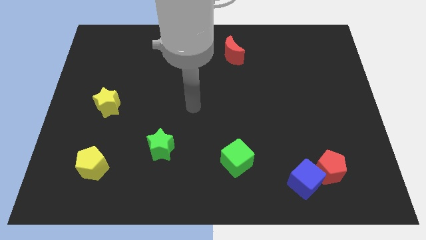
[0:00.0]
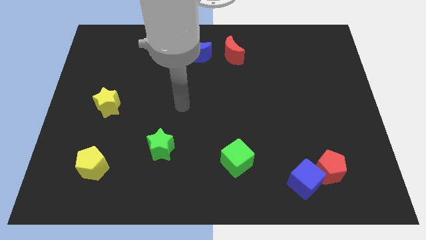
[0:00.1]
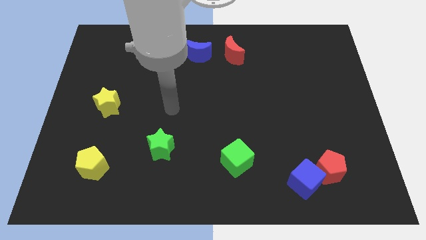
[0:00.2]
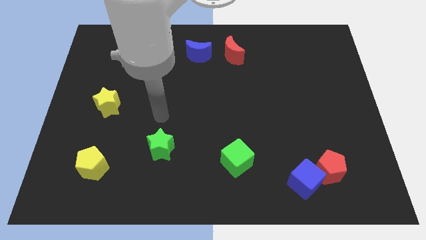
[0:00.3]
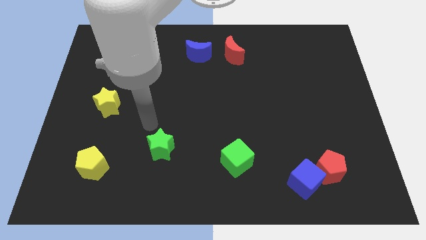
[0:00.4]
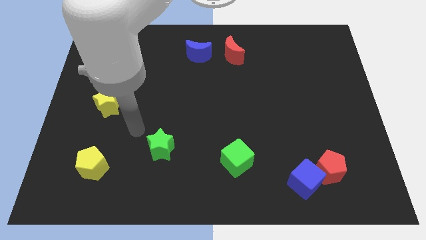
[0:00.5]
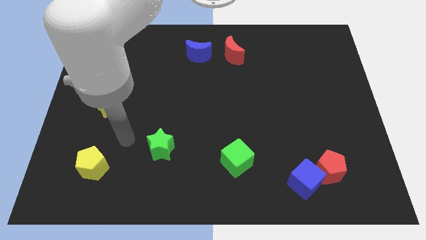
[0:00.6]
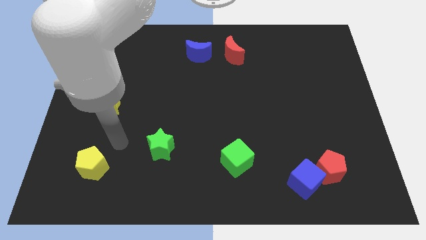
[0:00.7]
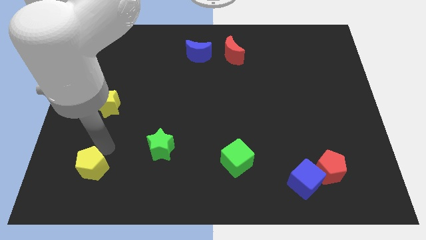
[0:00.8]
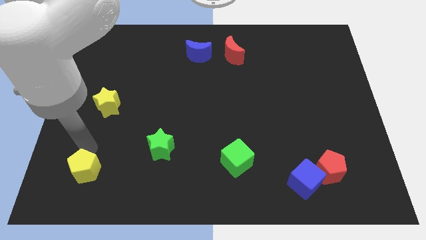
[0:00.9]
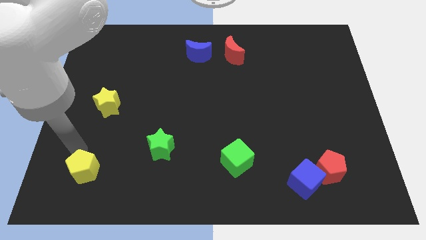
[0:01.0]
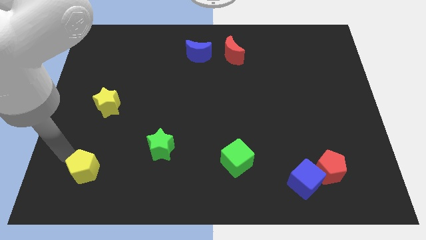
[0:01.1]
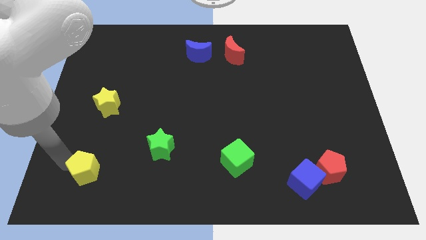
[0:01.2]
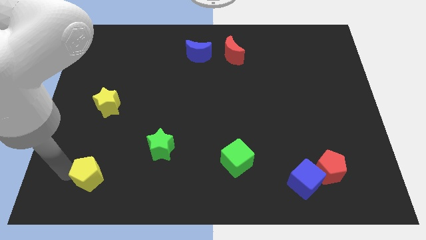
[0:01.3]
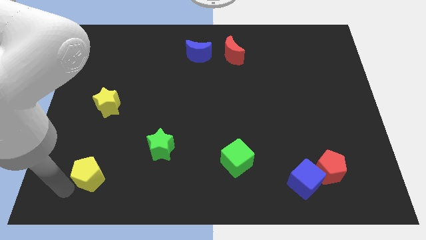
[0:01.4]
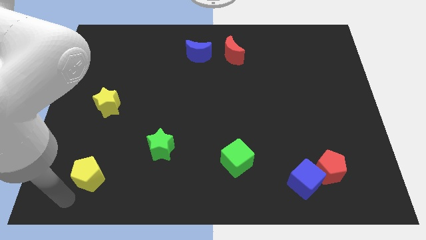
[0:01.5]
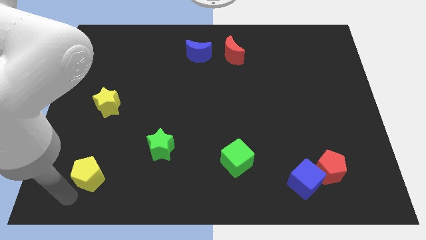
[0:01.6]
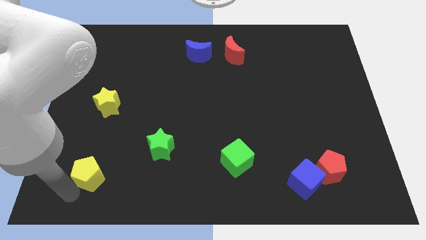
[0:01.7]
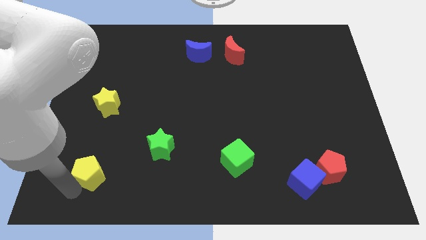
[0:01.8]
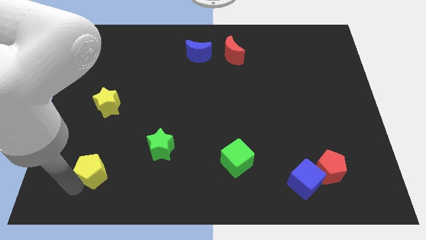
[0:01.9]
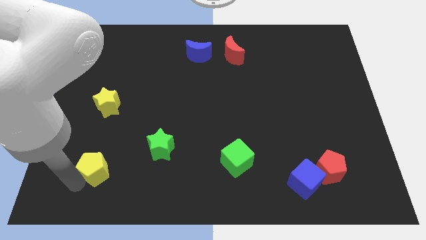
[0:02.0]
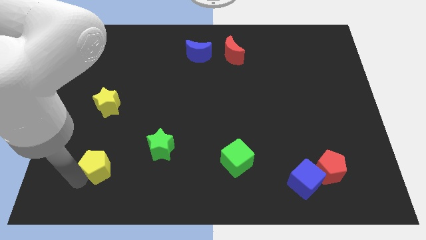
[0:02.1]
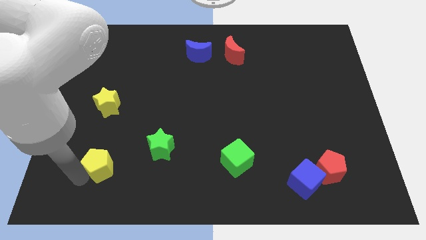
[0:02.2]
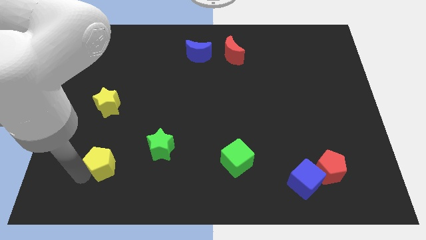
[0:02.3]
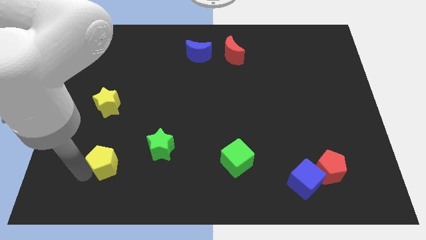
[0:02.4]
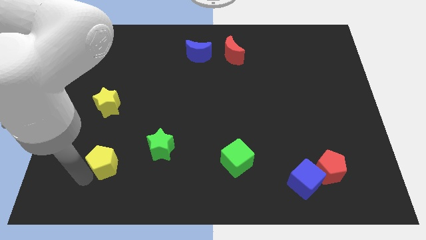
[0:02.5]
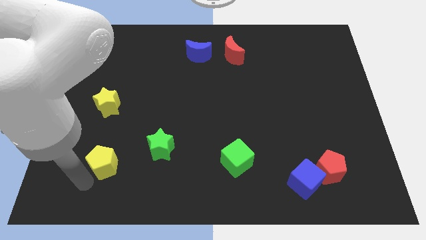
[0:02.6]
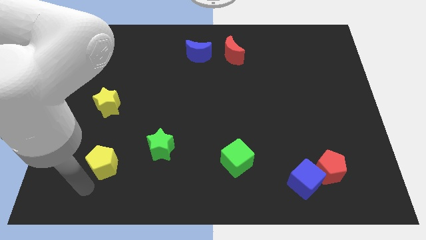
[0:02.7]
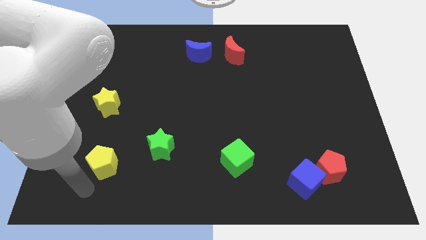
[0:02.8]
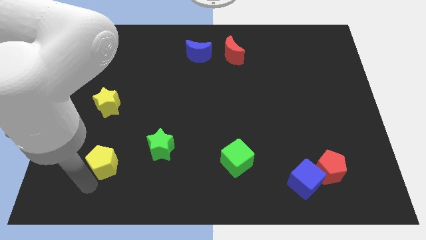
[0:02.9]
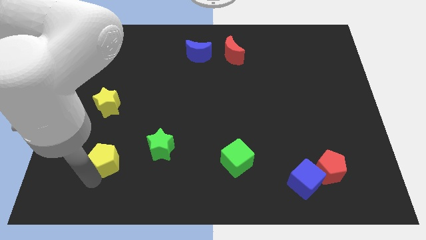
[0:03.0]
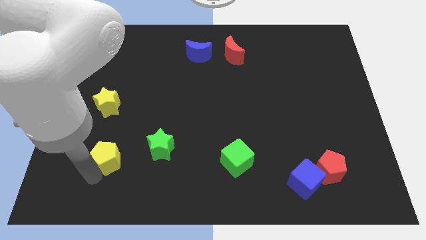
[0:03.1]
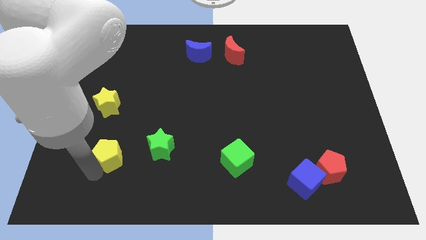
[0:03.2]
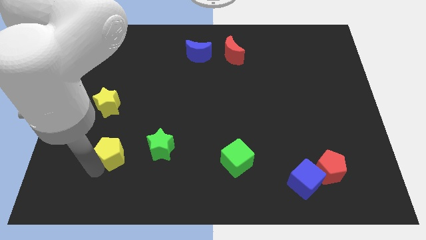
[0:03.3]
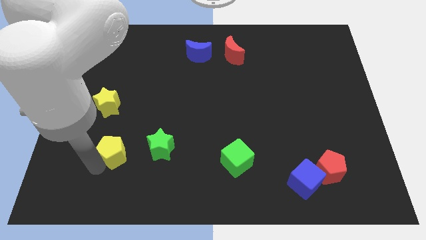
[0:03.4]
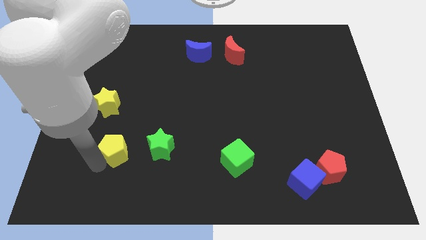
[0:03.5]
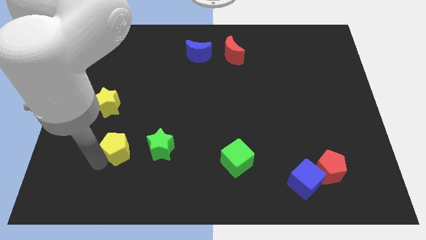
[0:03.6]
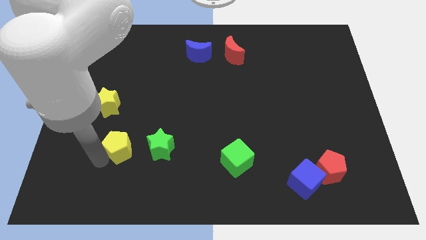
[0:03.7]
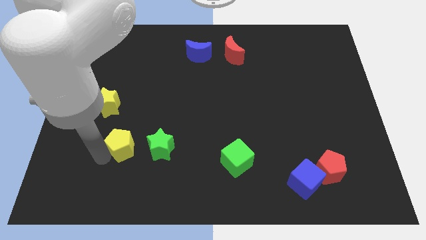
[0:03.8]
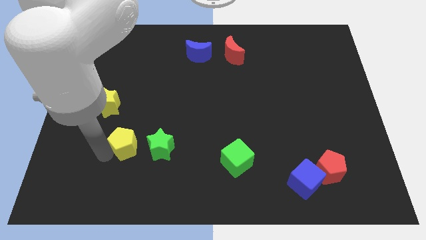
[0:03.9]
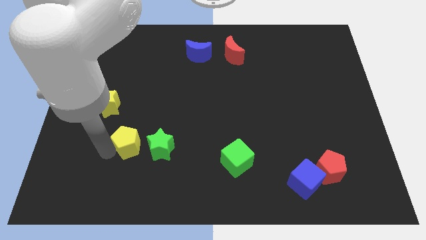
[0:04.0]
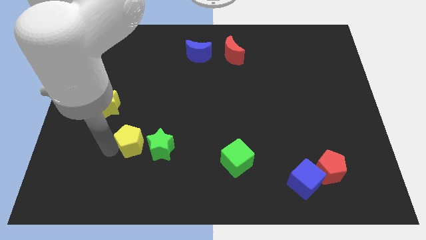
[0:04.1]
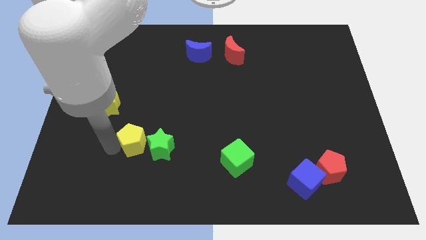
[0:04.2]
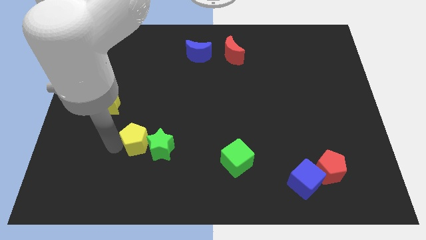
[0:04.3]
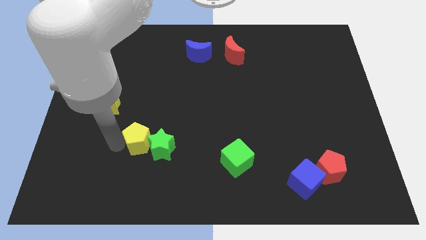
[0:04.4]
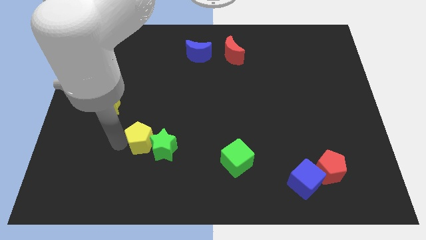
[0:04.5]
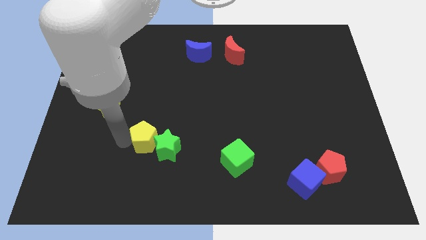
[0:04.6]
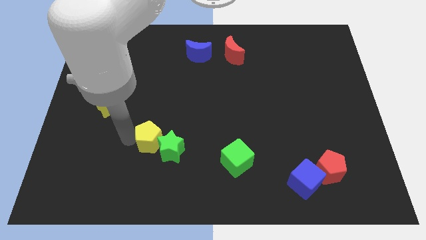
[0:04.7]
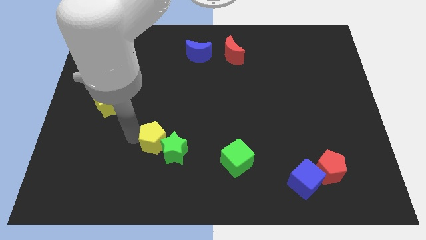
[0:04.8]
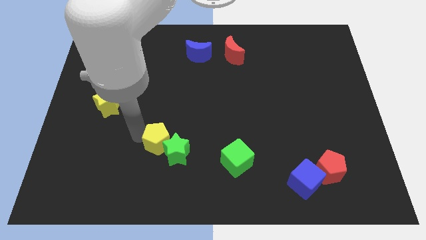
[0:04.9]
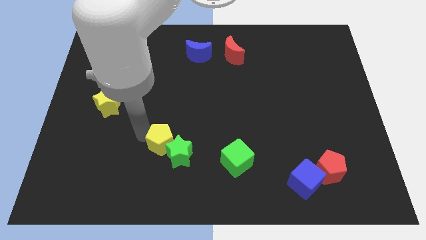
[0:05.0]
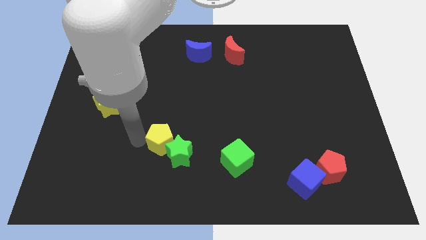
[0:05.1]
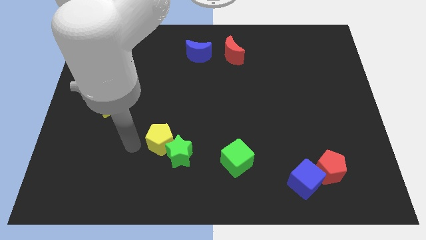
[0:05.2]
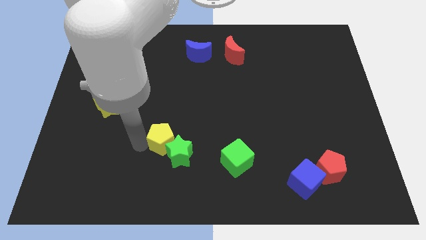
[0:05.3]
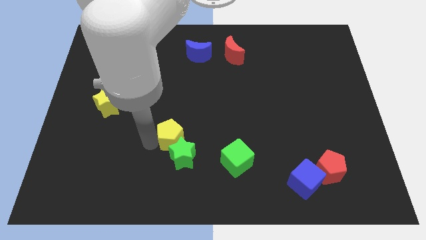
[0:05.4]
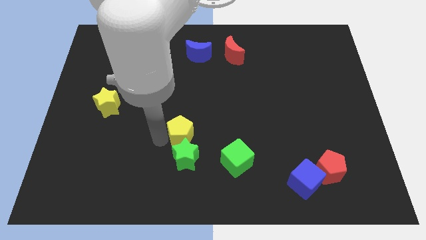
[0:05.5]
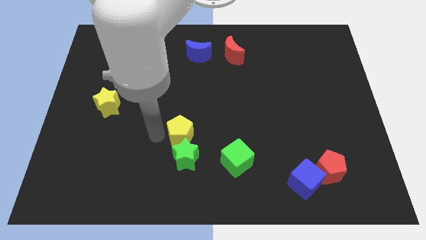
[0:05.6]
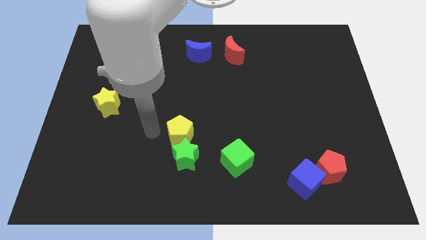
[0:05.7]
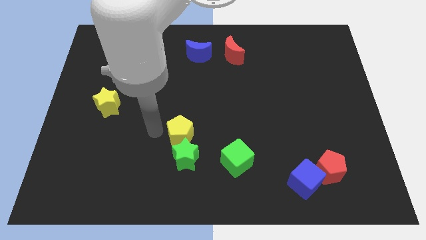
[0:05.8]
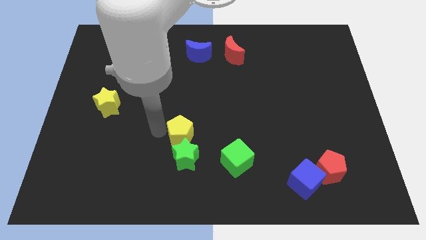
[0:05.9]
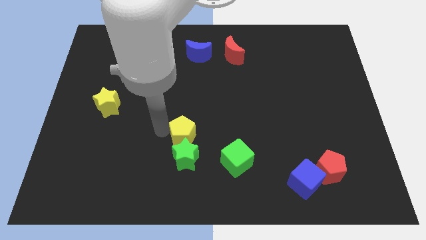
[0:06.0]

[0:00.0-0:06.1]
push the yellow pentagon to the top right side of the green star

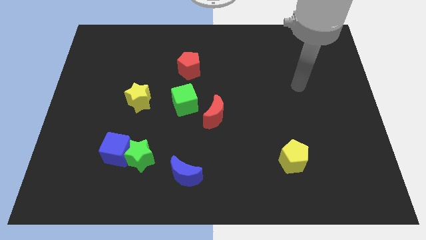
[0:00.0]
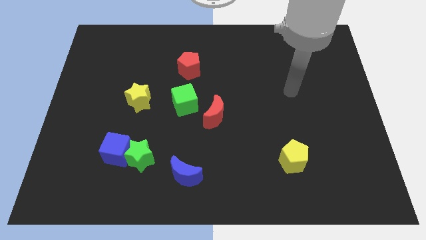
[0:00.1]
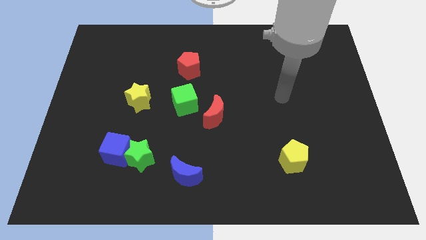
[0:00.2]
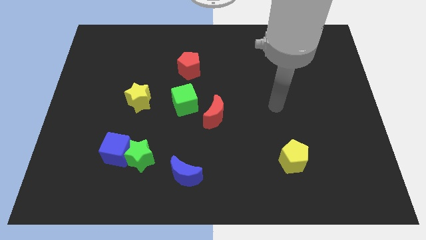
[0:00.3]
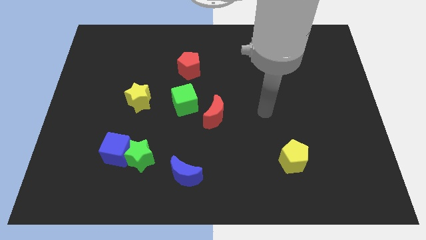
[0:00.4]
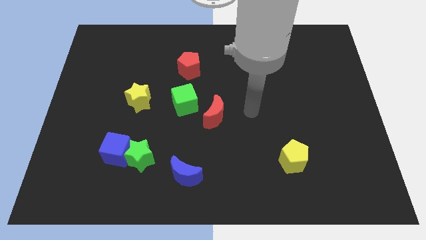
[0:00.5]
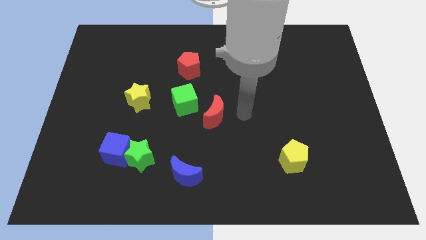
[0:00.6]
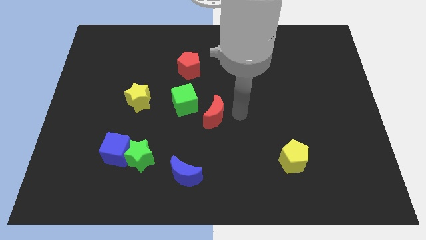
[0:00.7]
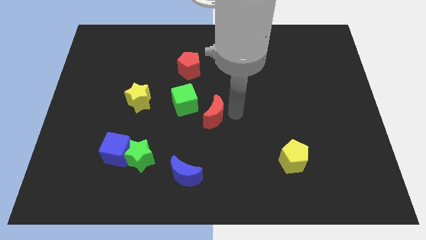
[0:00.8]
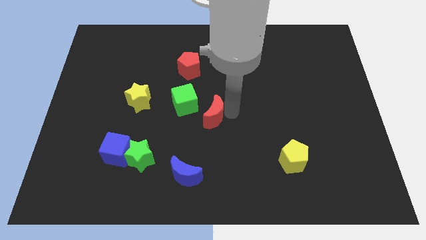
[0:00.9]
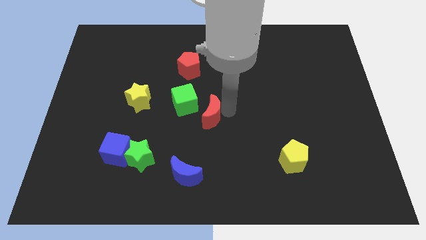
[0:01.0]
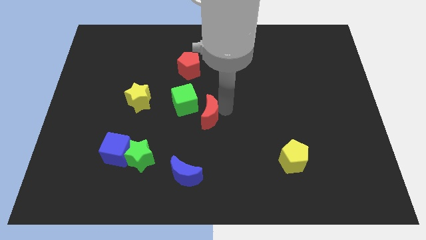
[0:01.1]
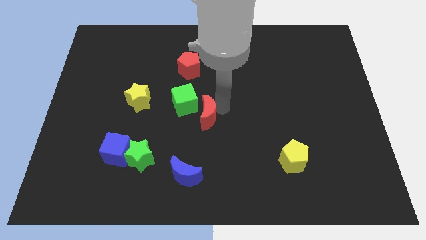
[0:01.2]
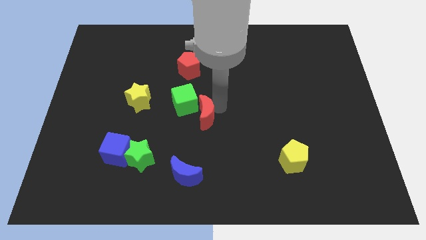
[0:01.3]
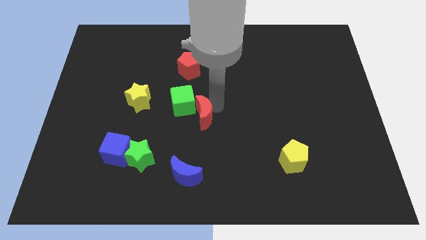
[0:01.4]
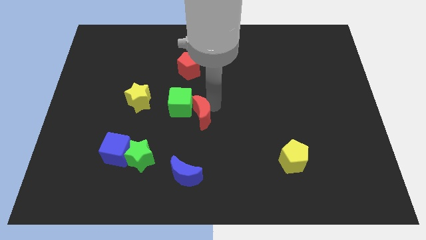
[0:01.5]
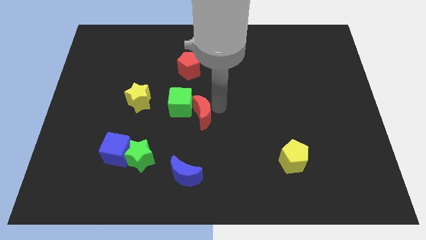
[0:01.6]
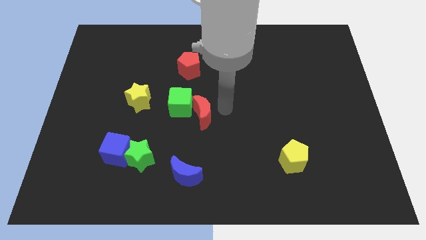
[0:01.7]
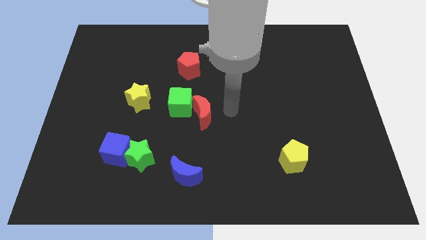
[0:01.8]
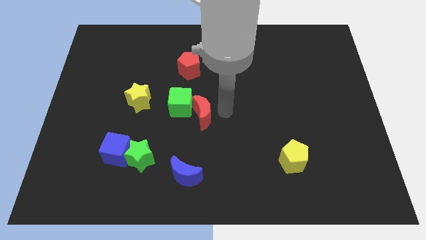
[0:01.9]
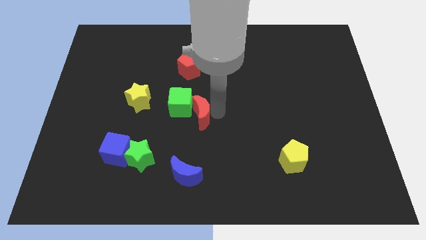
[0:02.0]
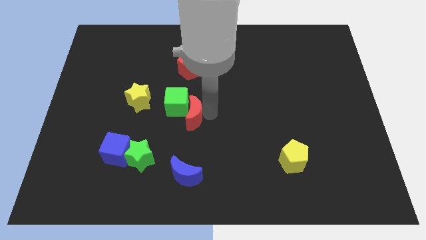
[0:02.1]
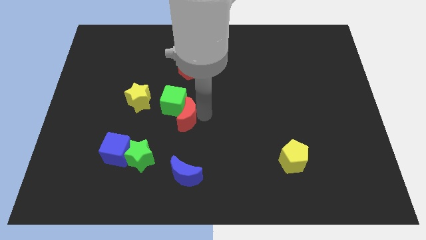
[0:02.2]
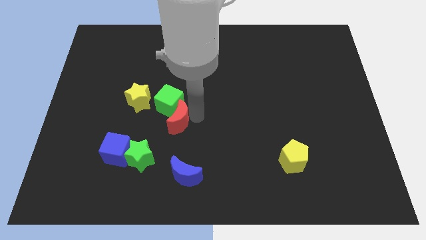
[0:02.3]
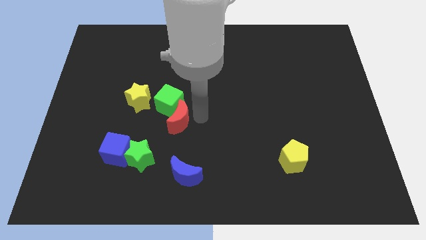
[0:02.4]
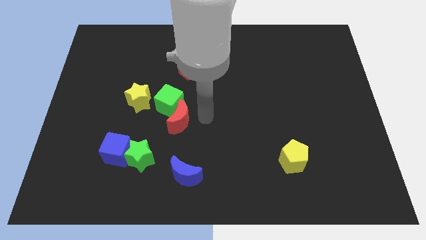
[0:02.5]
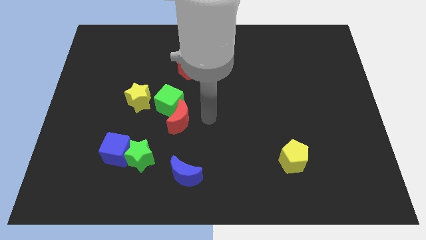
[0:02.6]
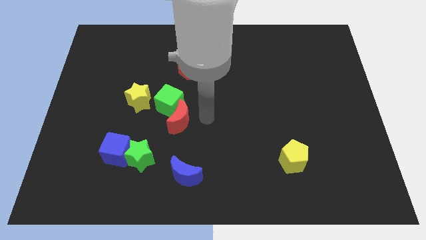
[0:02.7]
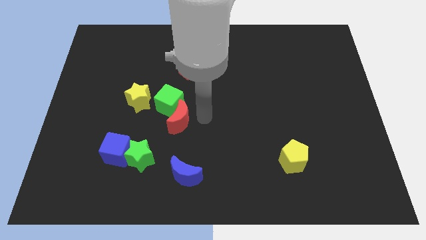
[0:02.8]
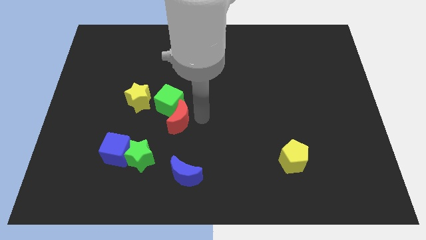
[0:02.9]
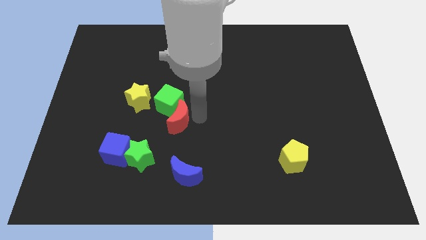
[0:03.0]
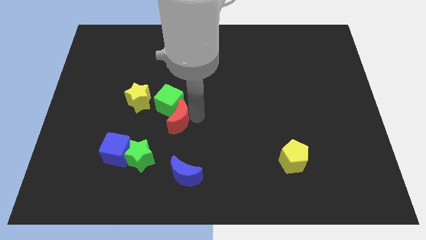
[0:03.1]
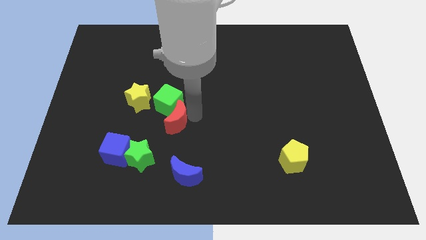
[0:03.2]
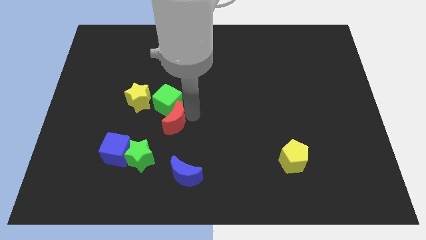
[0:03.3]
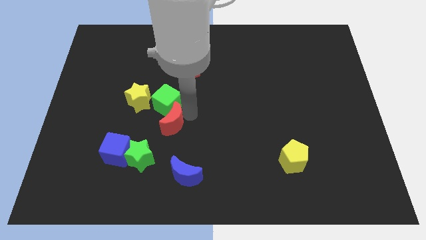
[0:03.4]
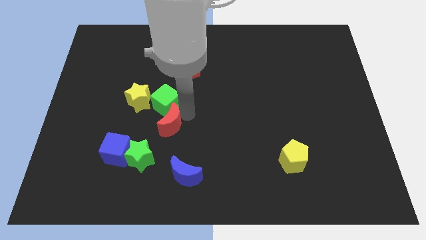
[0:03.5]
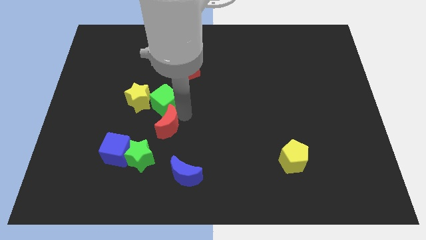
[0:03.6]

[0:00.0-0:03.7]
push the red moon to the top right of the blue cube
